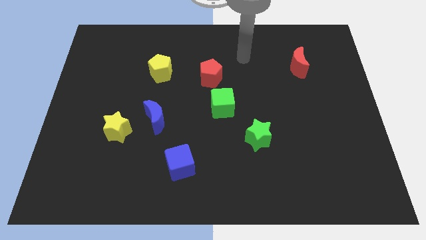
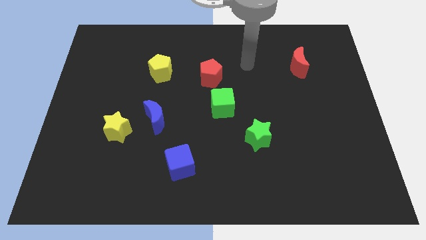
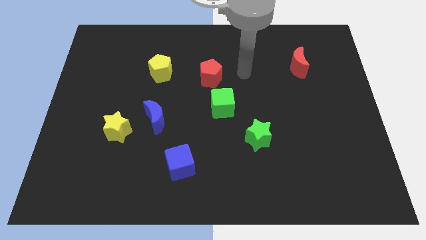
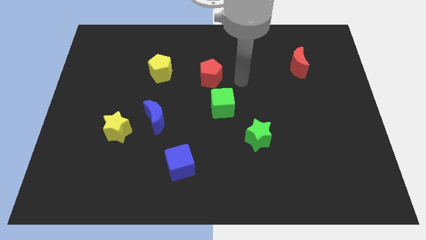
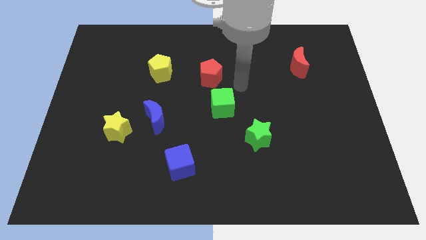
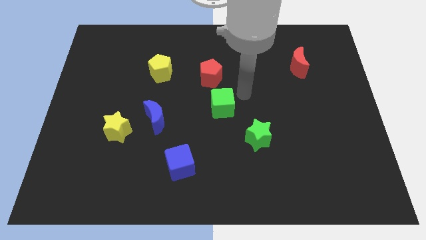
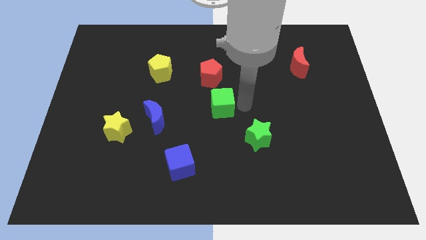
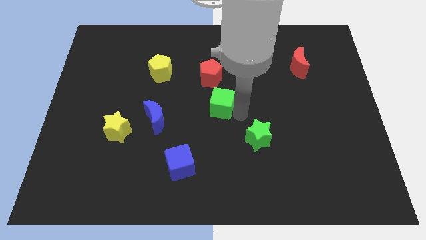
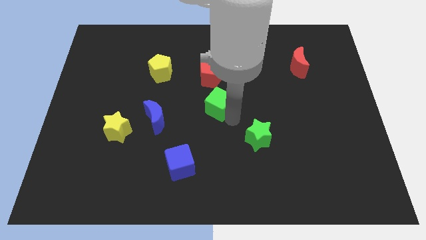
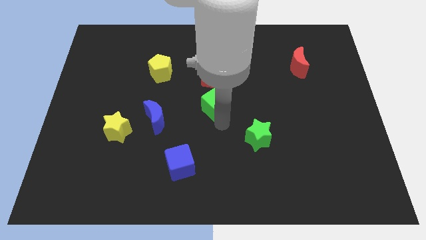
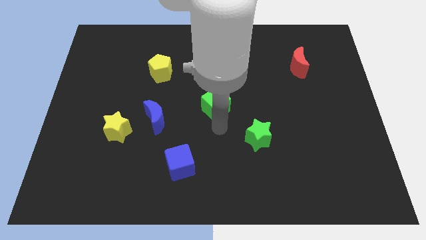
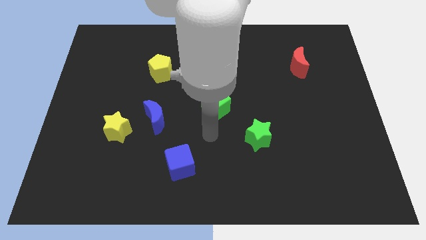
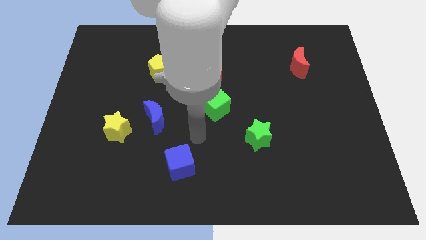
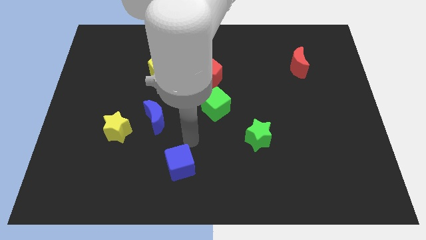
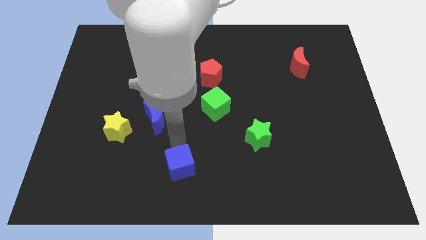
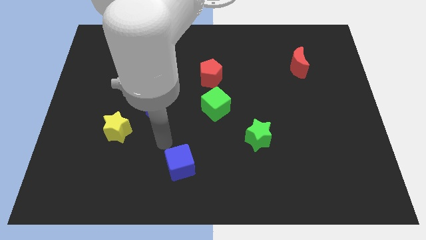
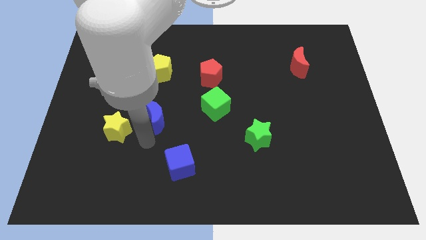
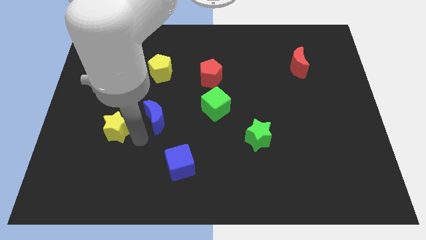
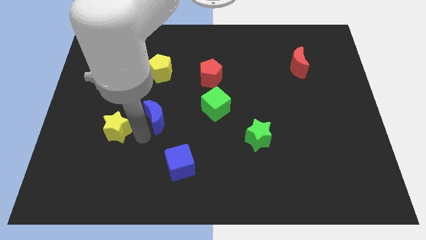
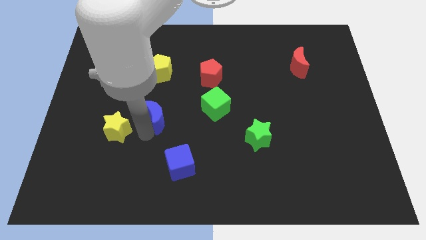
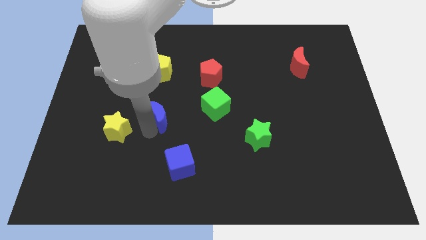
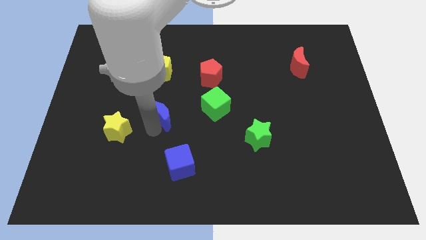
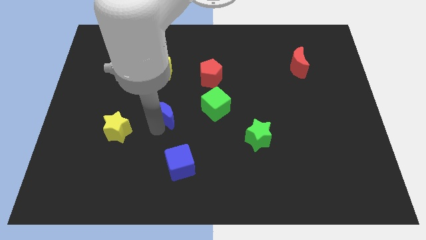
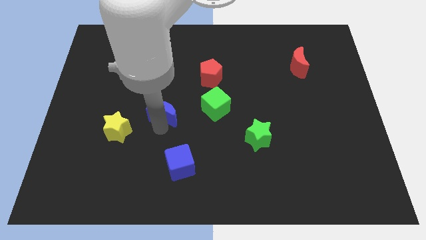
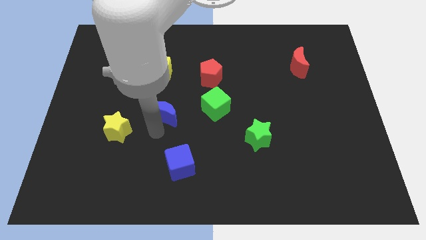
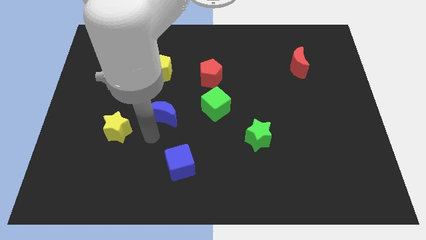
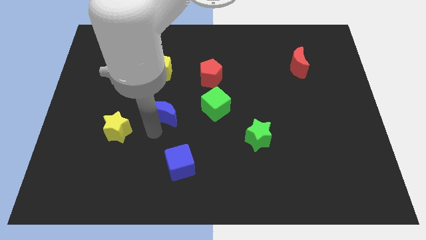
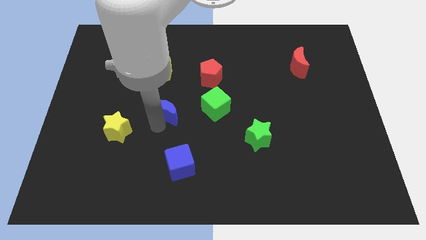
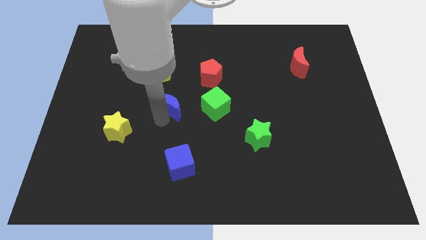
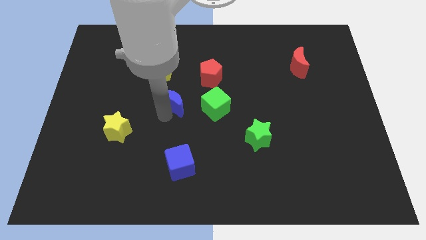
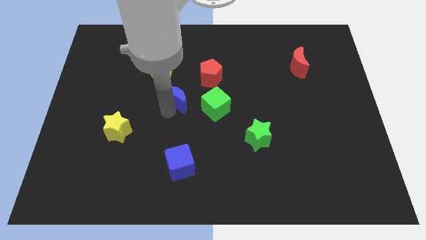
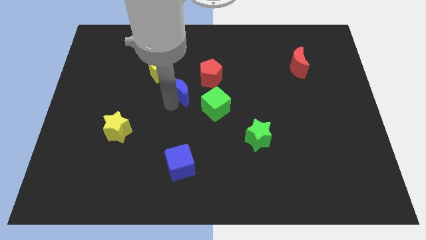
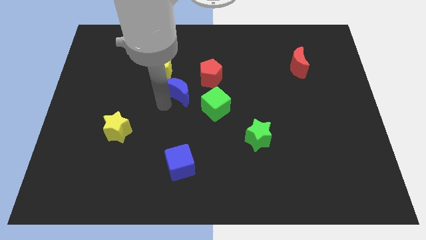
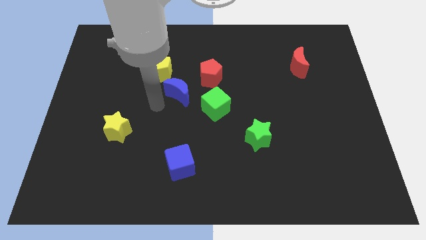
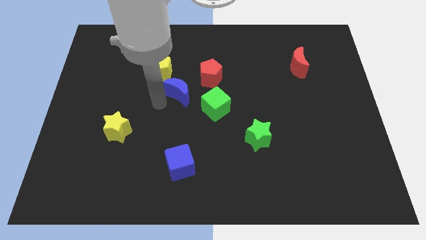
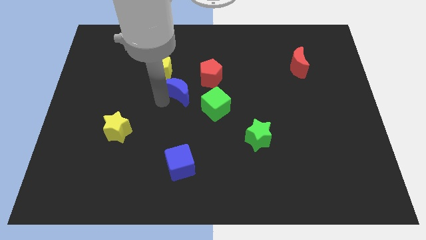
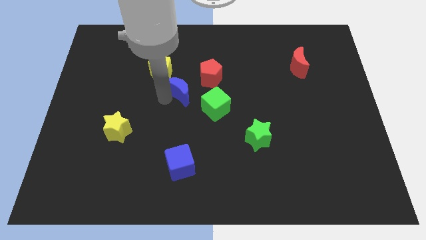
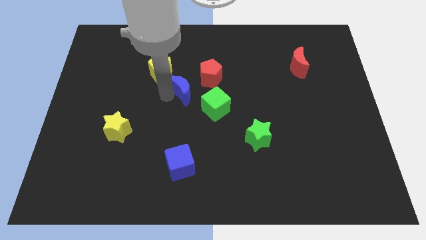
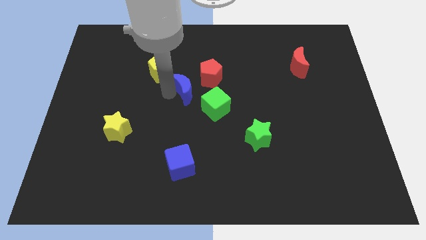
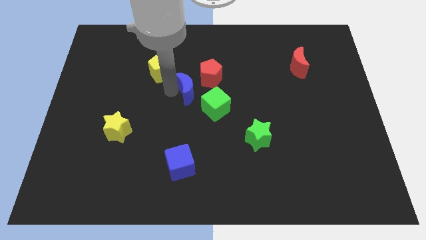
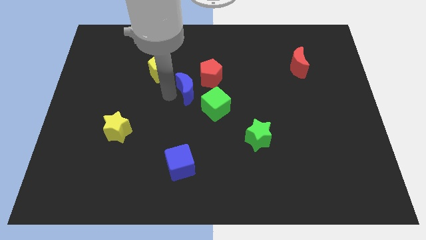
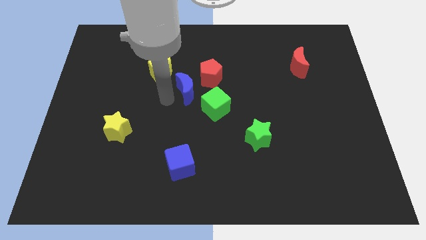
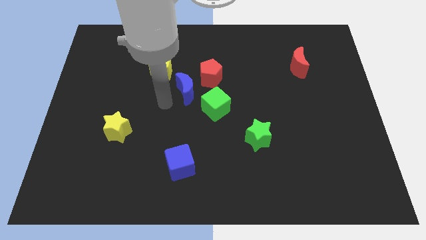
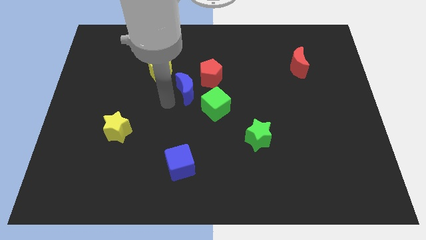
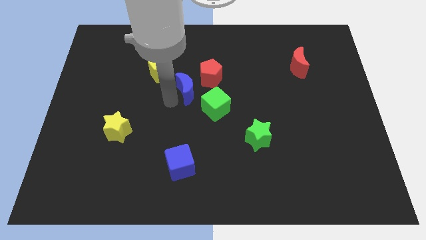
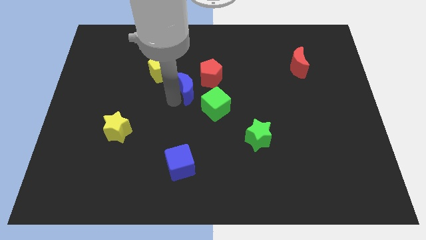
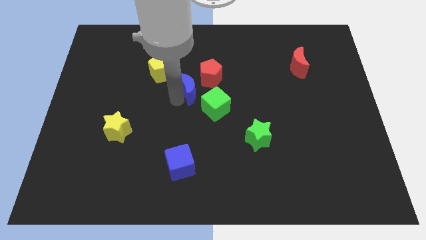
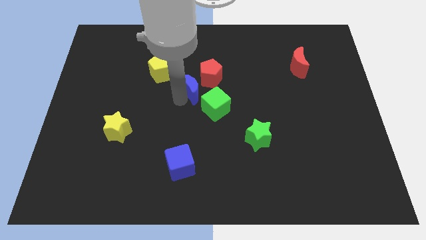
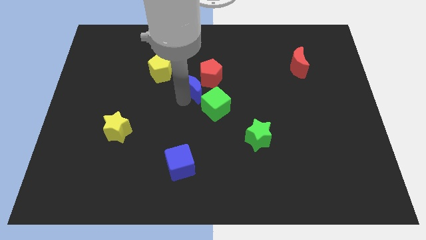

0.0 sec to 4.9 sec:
slide the blue moon towards the red pentagon

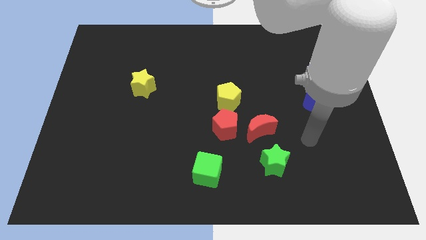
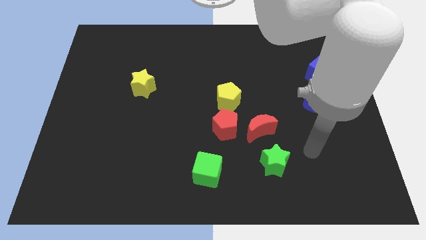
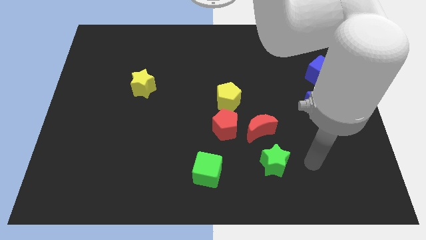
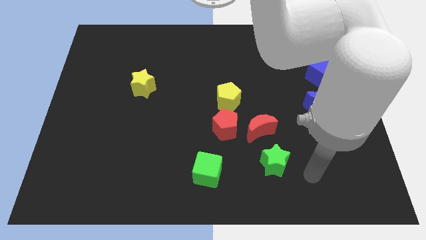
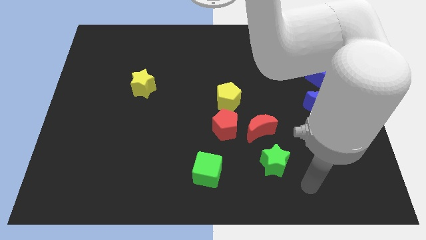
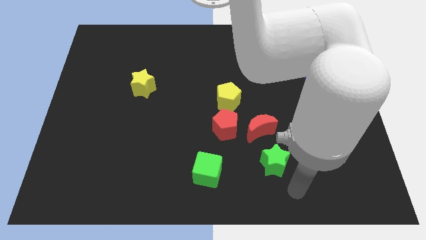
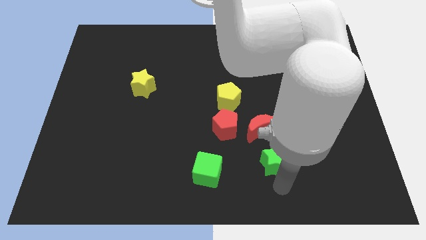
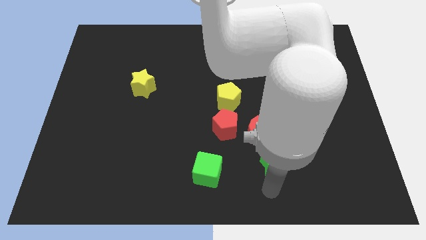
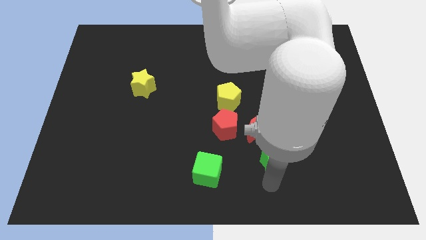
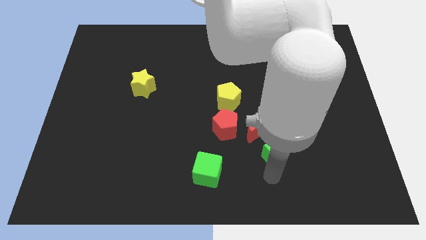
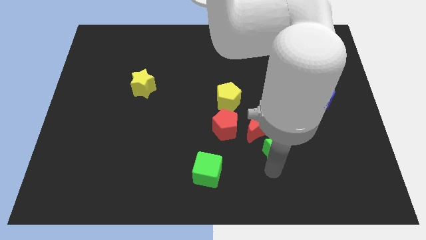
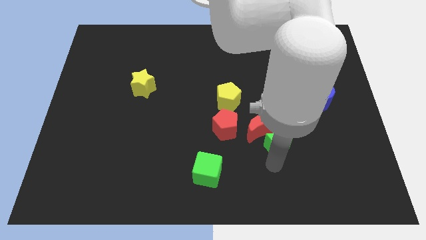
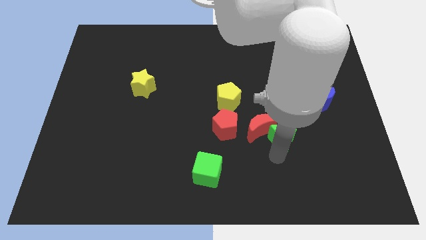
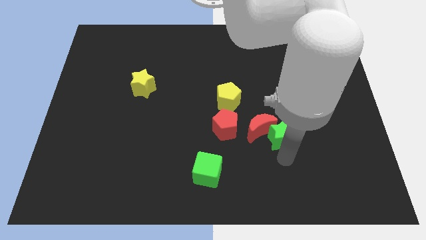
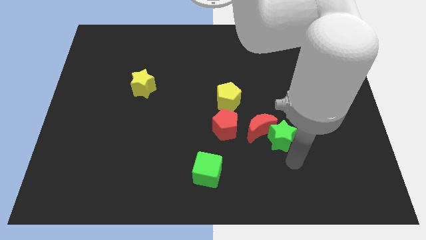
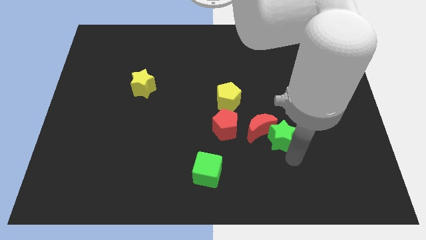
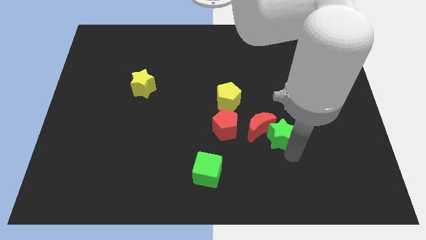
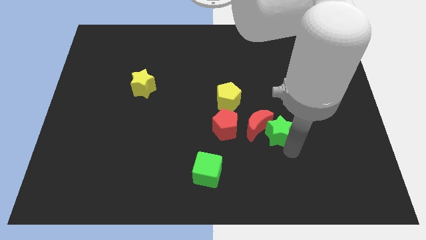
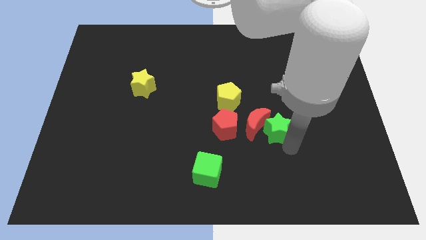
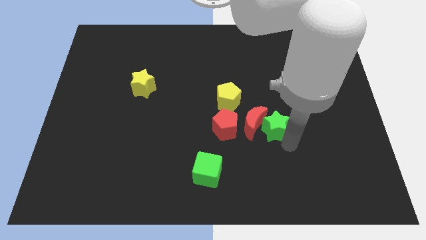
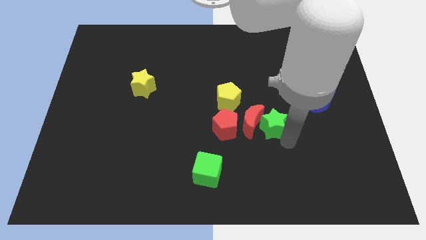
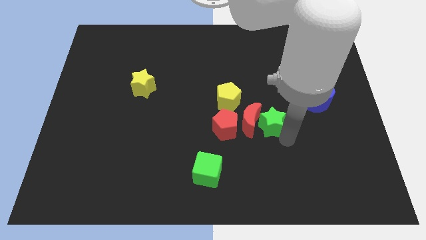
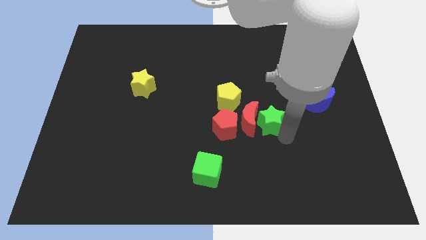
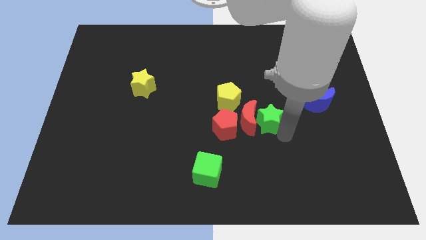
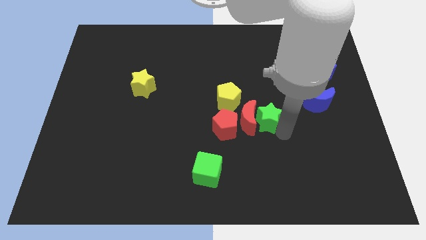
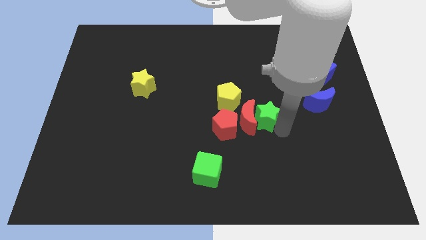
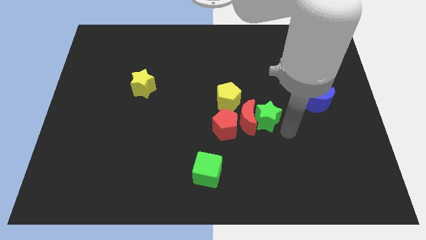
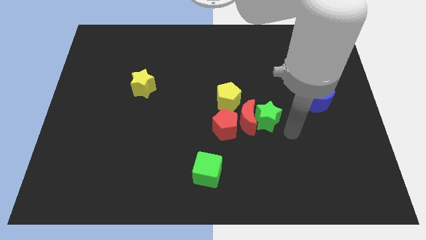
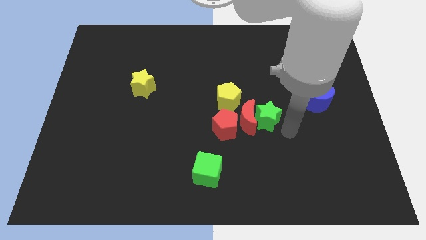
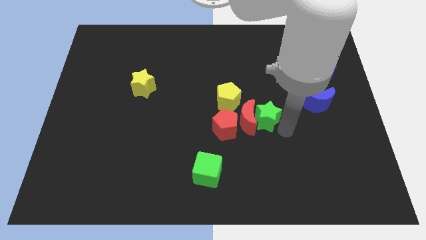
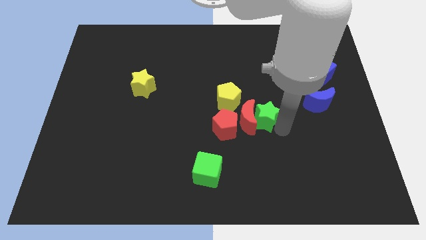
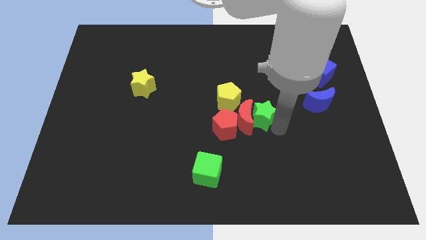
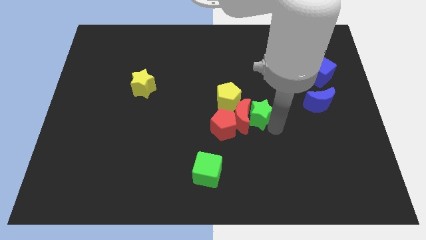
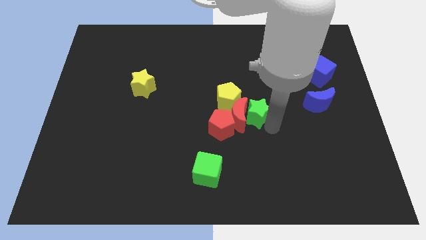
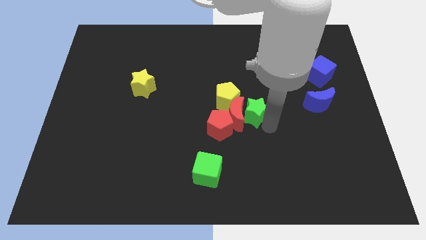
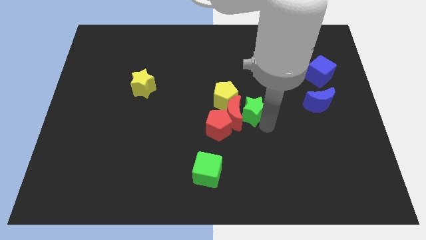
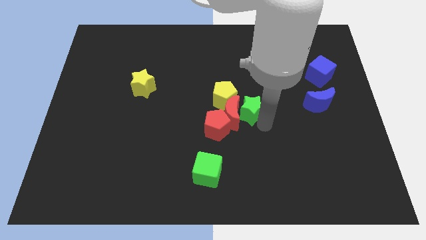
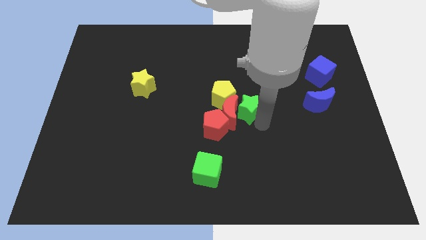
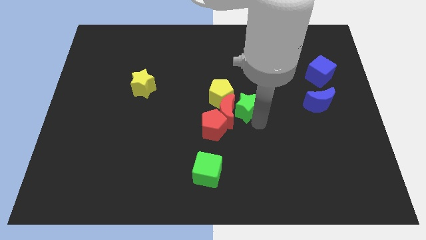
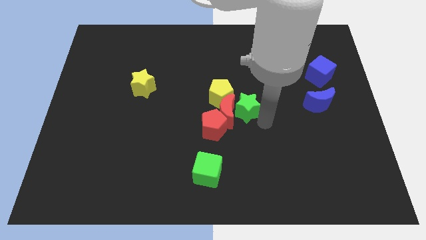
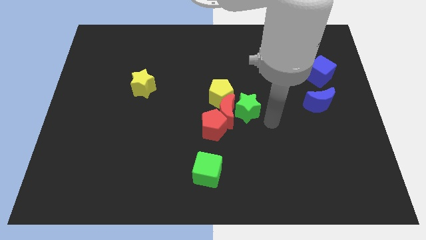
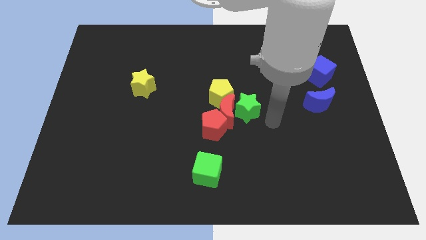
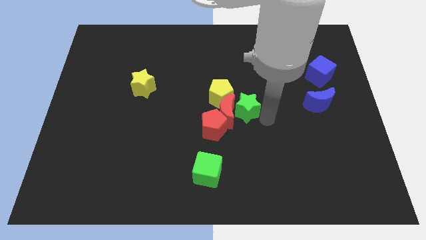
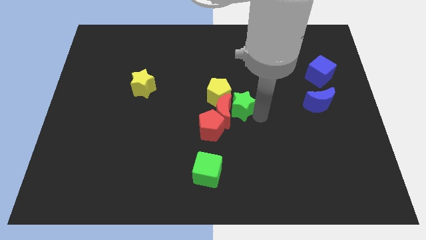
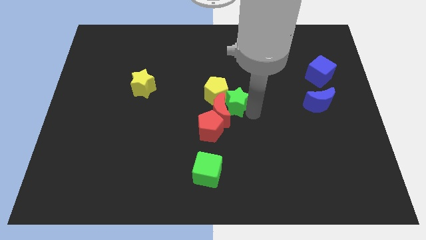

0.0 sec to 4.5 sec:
push the green star towards the yellow pentagon
